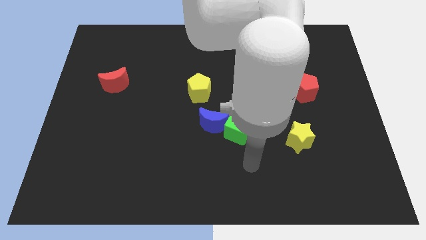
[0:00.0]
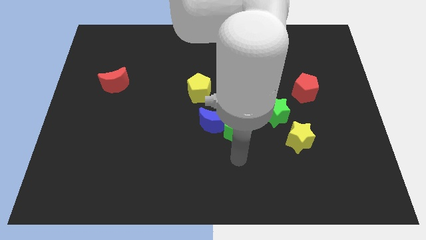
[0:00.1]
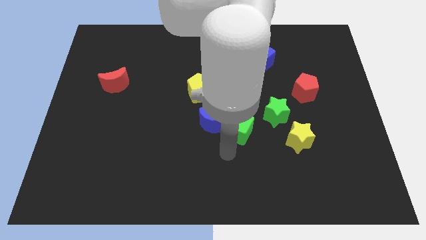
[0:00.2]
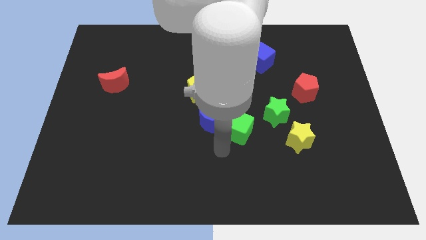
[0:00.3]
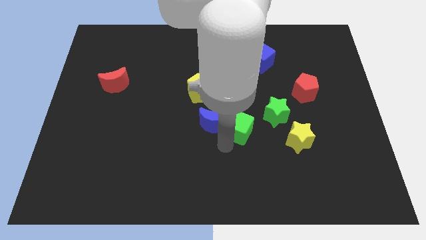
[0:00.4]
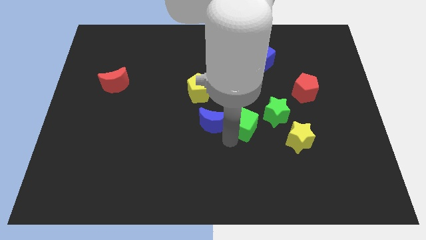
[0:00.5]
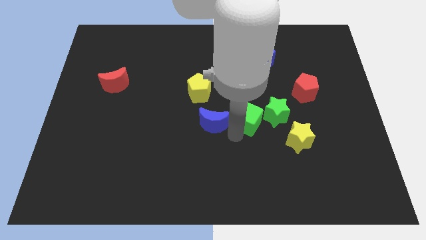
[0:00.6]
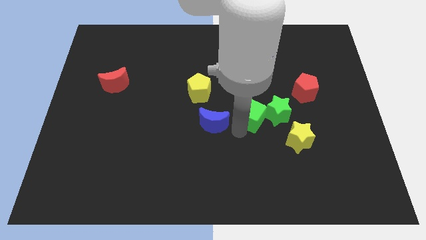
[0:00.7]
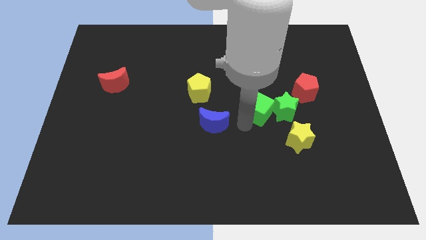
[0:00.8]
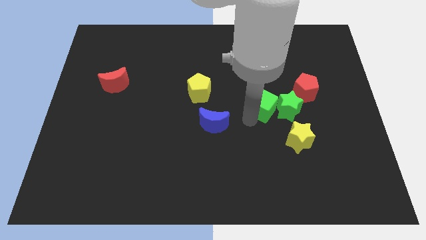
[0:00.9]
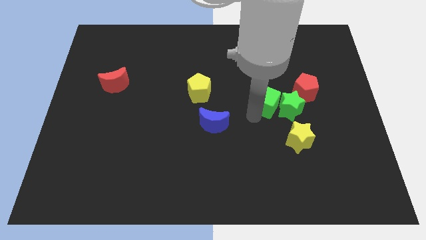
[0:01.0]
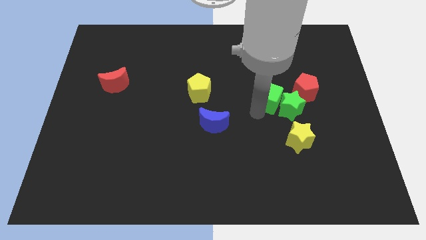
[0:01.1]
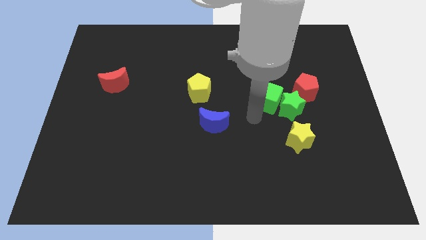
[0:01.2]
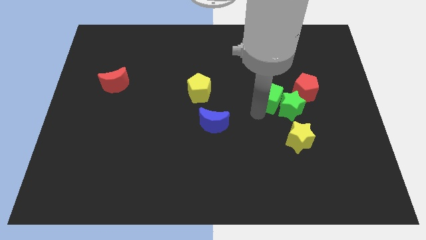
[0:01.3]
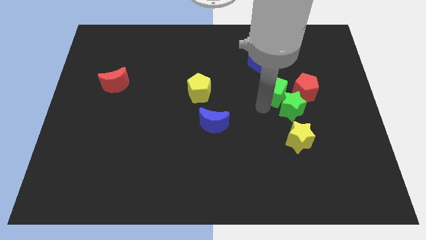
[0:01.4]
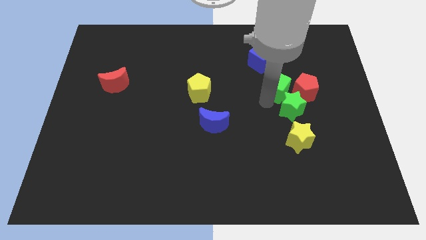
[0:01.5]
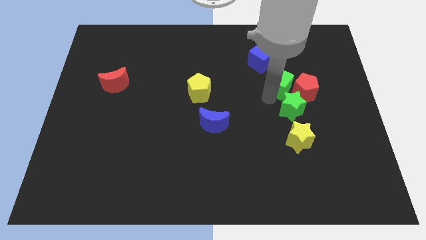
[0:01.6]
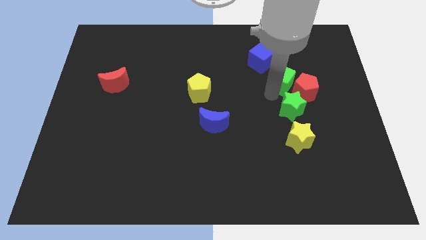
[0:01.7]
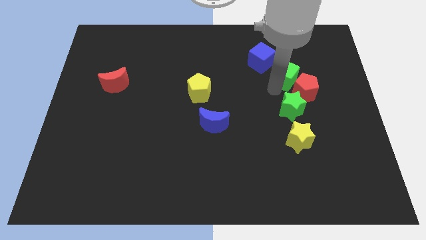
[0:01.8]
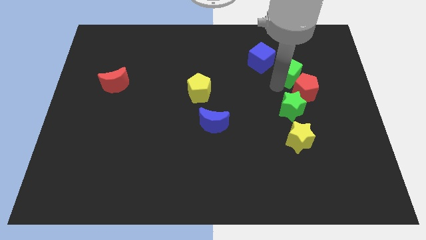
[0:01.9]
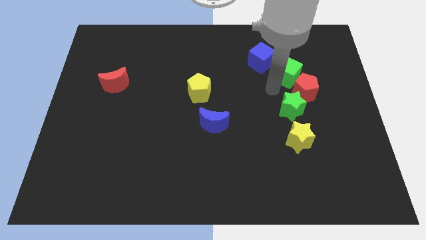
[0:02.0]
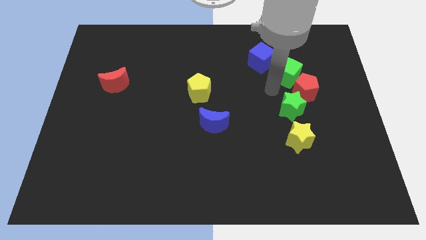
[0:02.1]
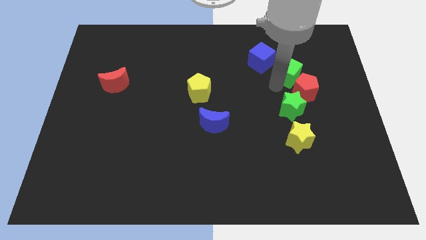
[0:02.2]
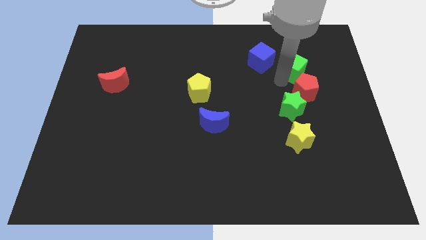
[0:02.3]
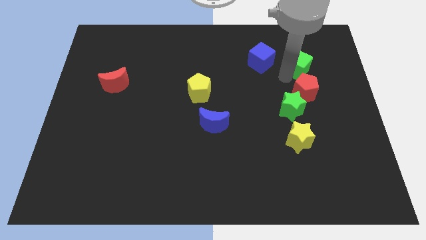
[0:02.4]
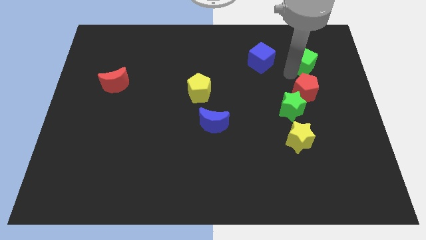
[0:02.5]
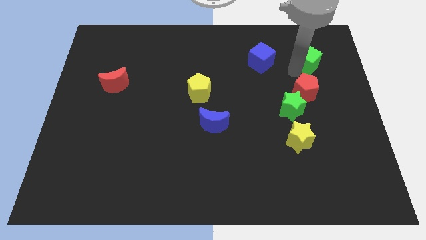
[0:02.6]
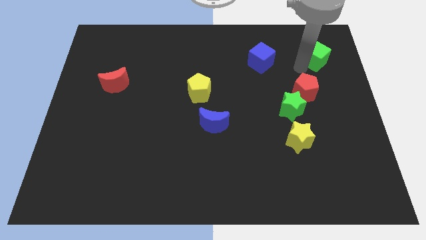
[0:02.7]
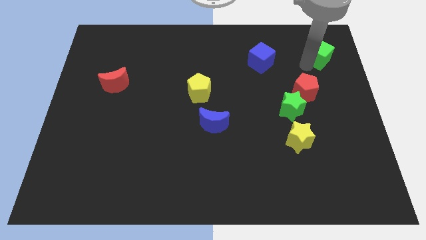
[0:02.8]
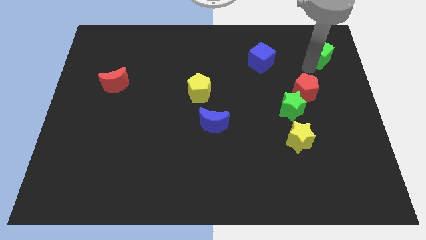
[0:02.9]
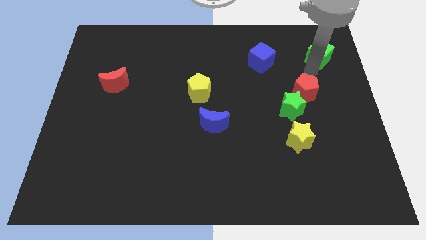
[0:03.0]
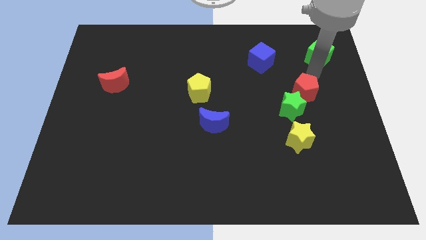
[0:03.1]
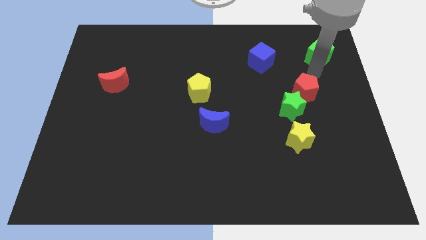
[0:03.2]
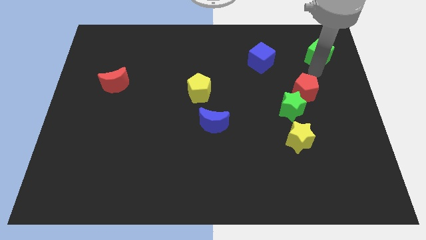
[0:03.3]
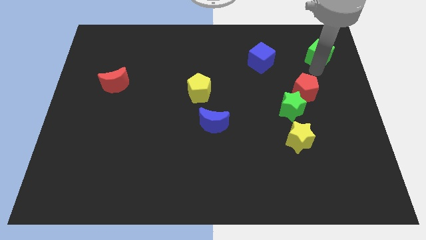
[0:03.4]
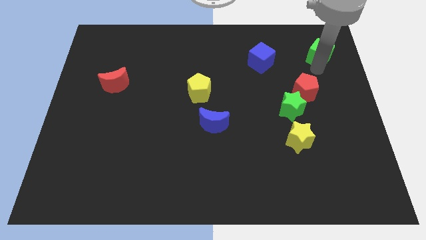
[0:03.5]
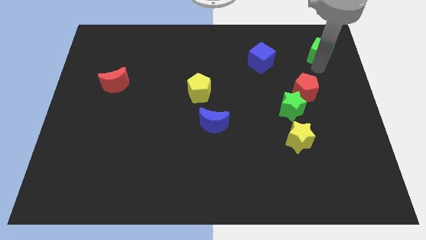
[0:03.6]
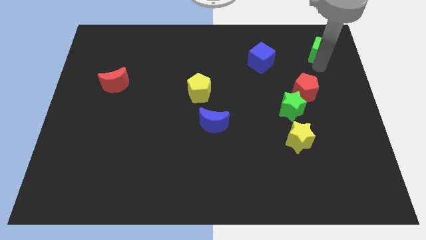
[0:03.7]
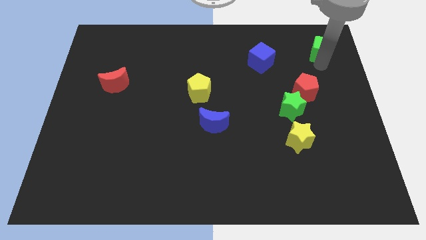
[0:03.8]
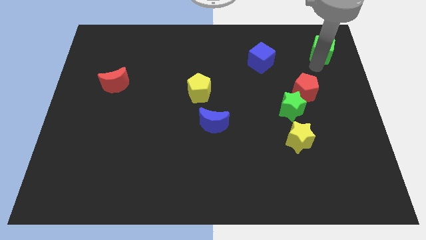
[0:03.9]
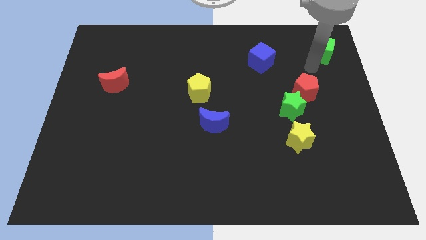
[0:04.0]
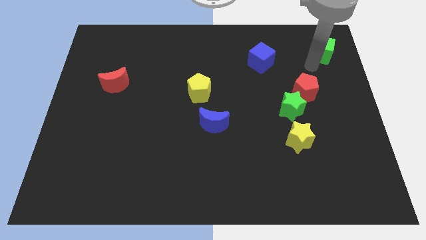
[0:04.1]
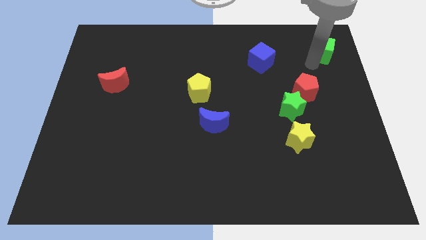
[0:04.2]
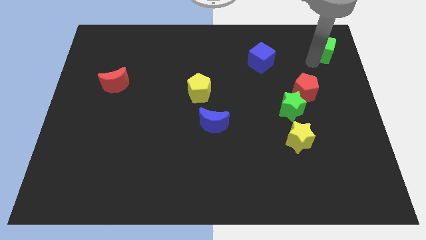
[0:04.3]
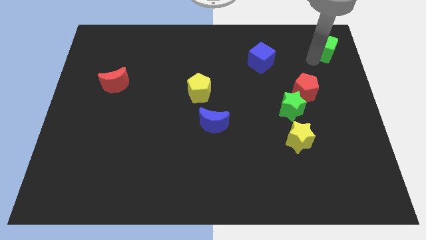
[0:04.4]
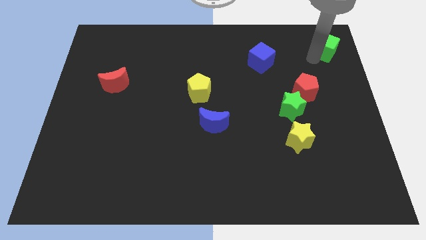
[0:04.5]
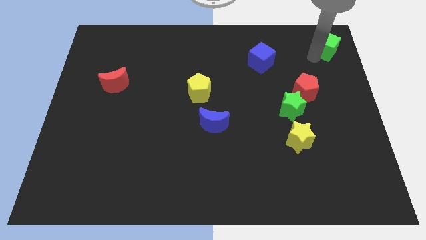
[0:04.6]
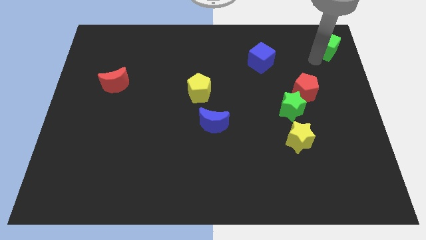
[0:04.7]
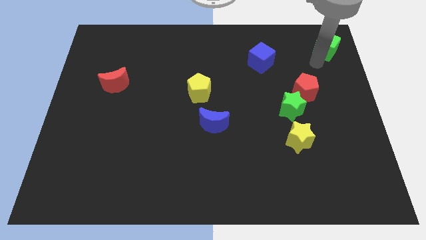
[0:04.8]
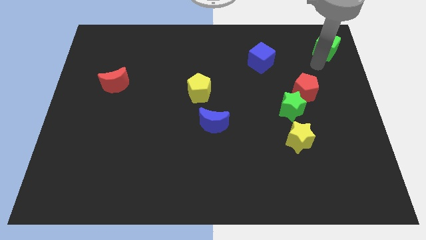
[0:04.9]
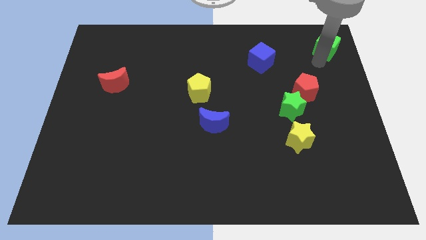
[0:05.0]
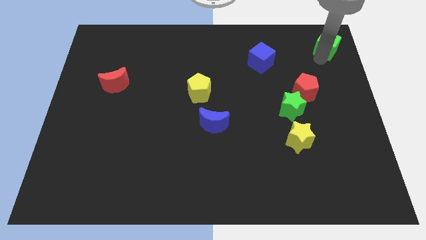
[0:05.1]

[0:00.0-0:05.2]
slide the green cube to the top right corner
